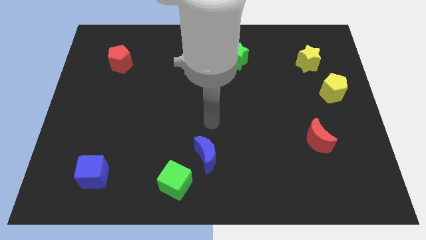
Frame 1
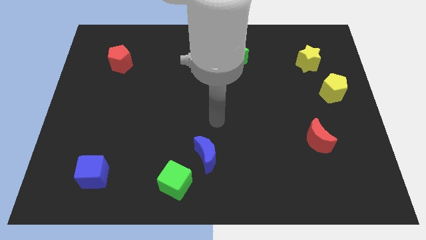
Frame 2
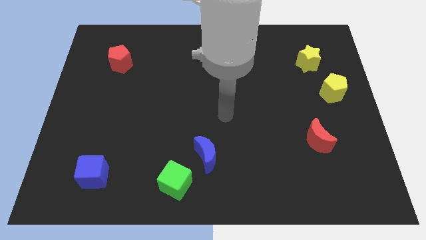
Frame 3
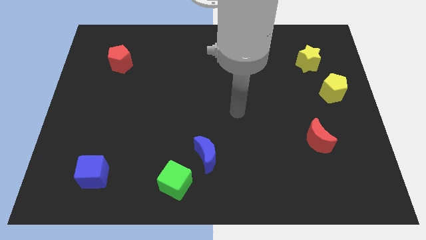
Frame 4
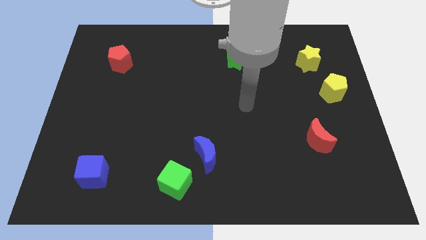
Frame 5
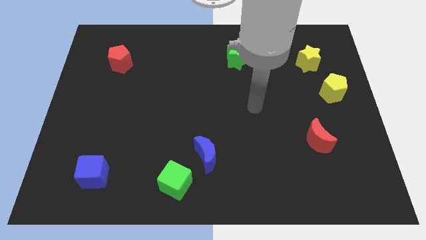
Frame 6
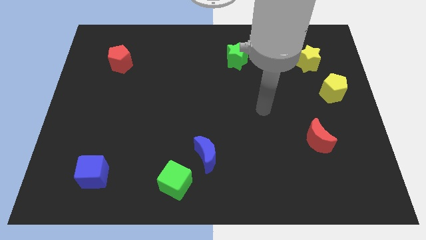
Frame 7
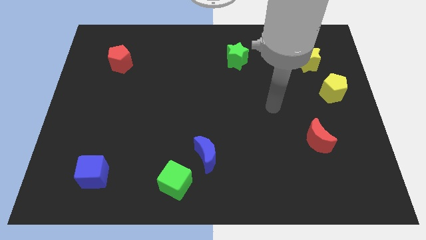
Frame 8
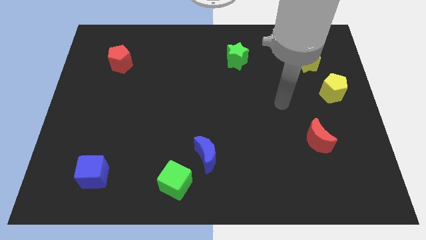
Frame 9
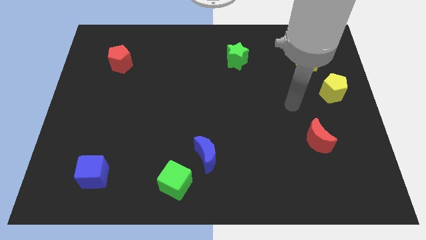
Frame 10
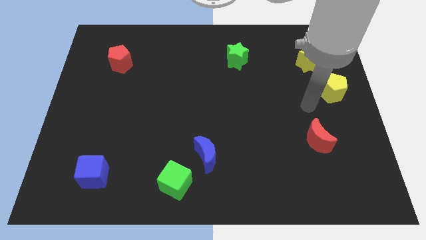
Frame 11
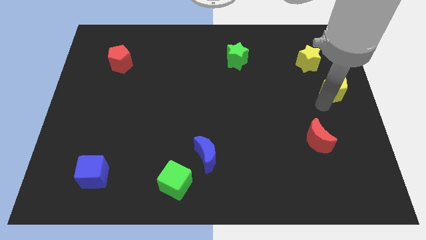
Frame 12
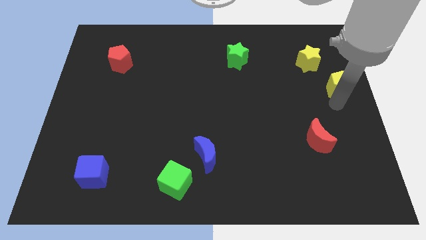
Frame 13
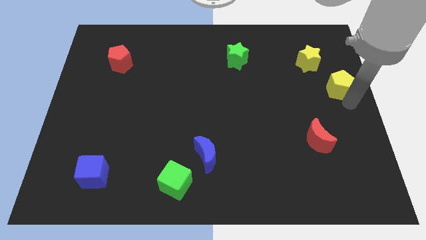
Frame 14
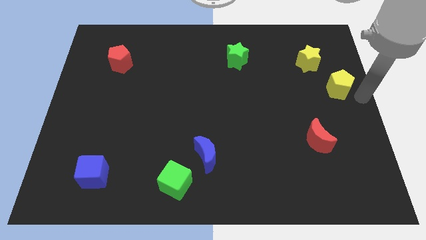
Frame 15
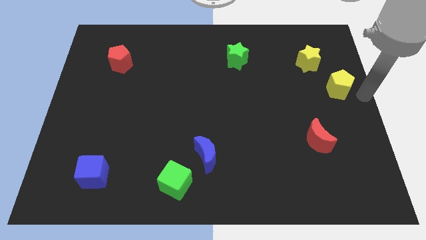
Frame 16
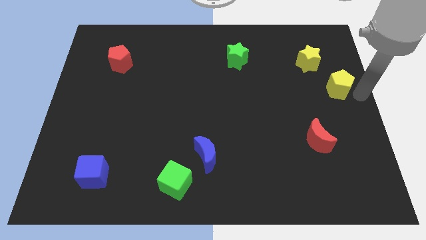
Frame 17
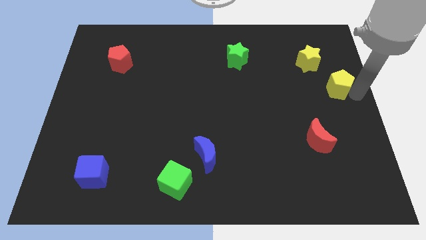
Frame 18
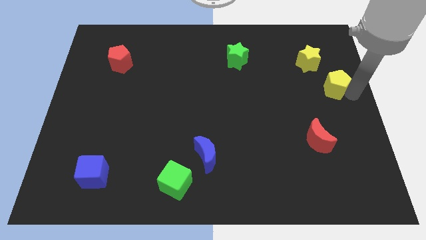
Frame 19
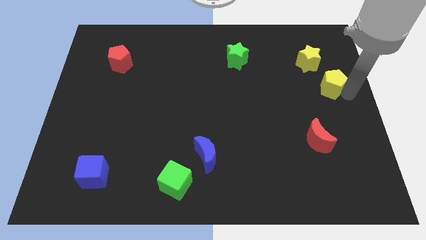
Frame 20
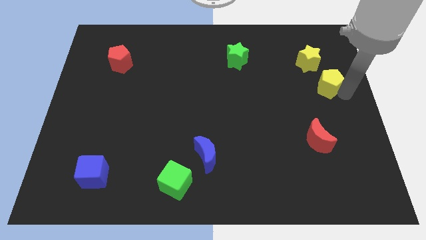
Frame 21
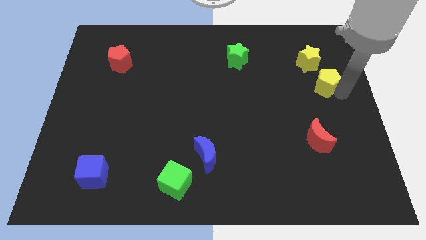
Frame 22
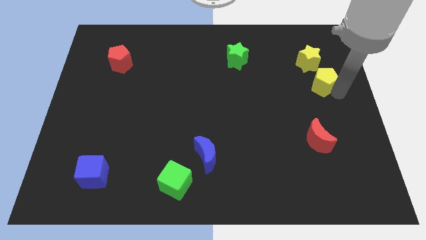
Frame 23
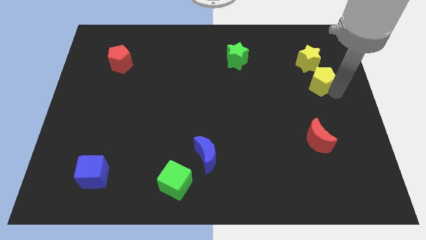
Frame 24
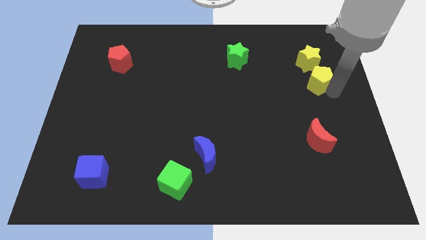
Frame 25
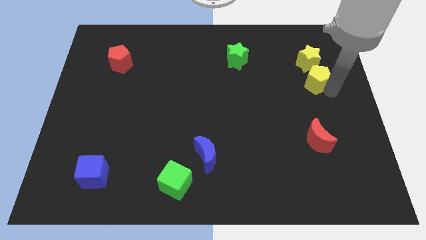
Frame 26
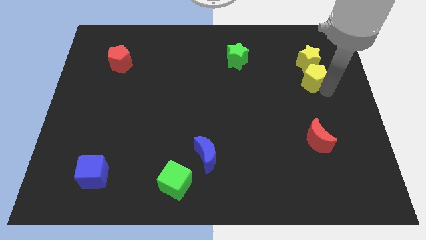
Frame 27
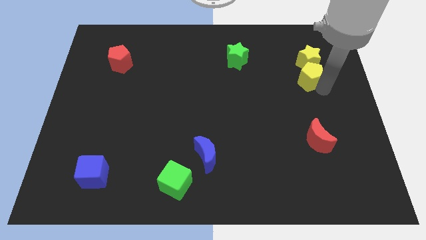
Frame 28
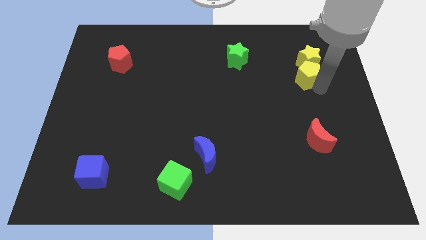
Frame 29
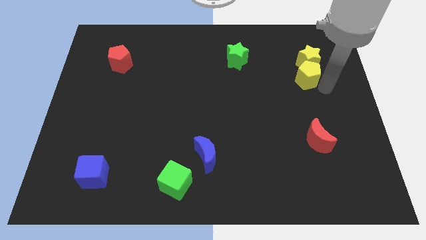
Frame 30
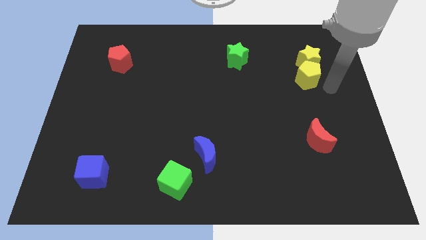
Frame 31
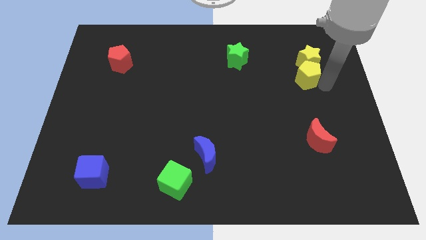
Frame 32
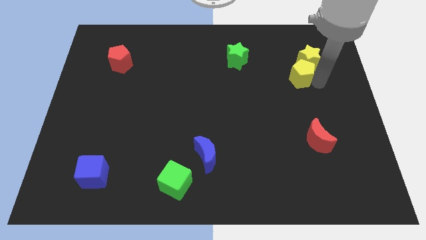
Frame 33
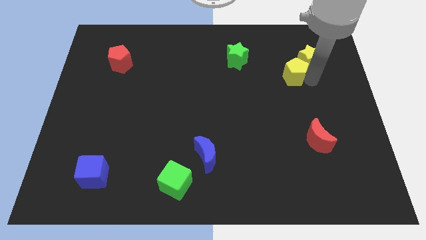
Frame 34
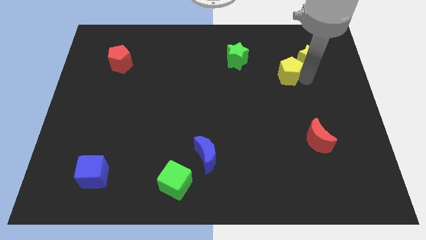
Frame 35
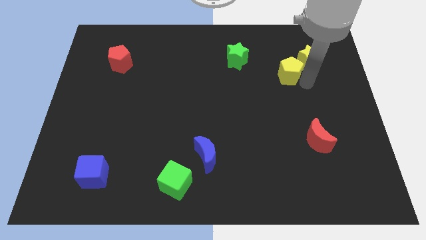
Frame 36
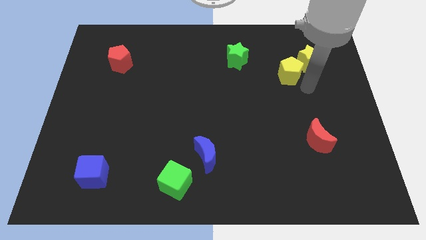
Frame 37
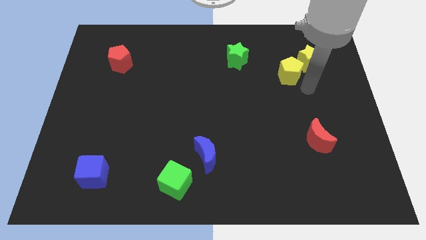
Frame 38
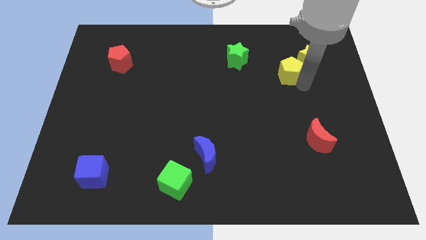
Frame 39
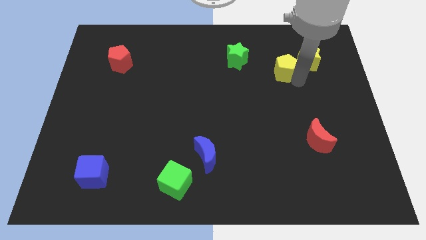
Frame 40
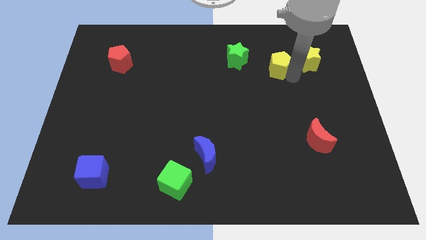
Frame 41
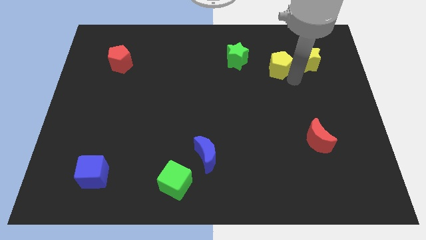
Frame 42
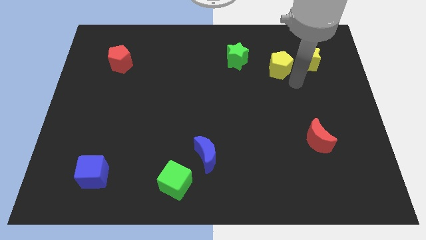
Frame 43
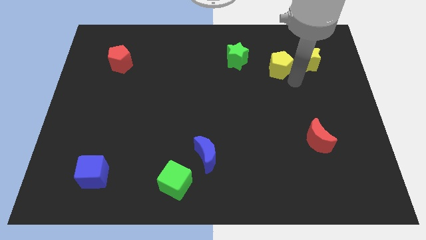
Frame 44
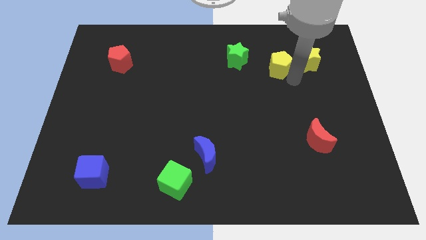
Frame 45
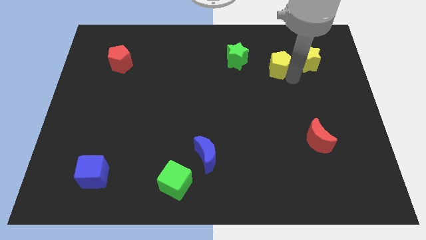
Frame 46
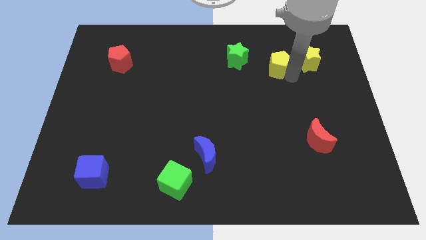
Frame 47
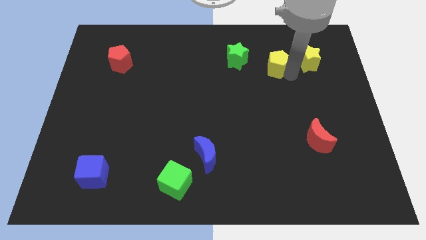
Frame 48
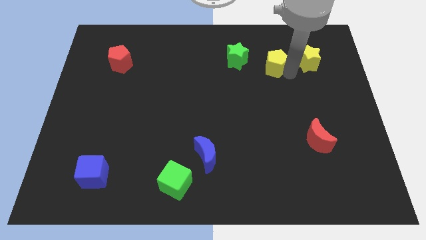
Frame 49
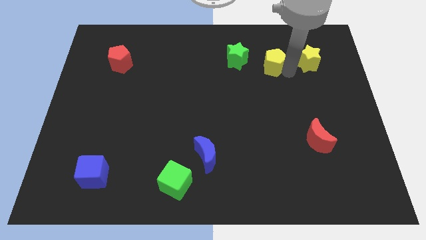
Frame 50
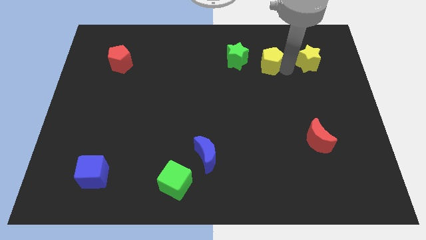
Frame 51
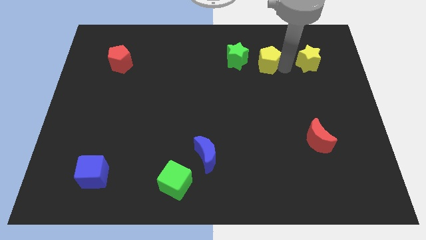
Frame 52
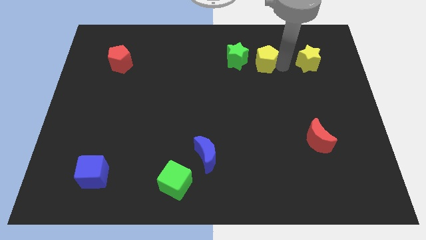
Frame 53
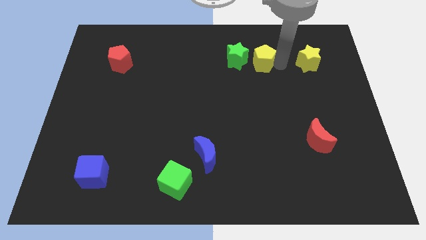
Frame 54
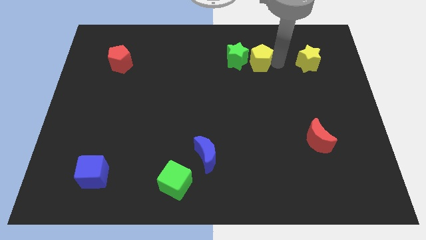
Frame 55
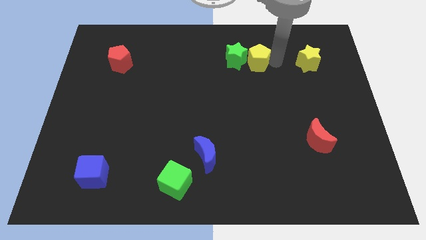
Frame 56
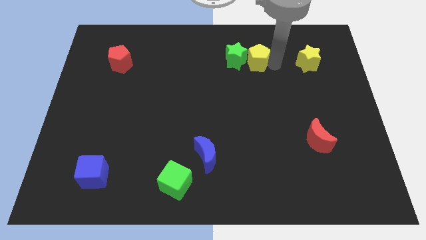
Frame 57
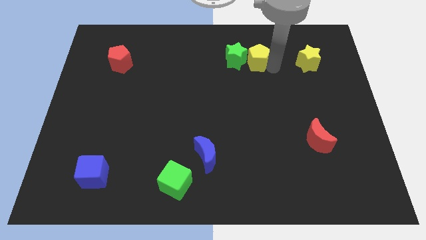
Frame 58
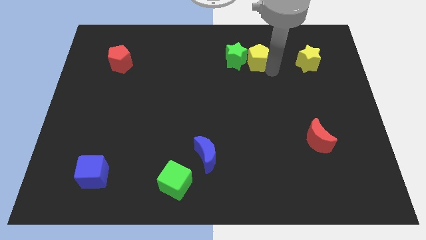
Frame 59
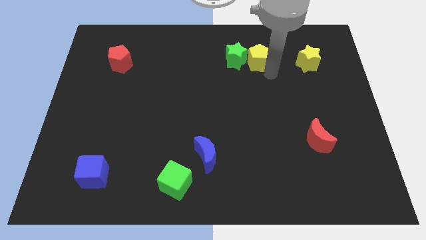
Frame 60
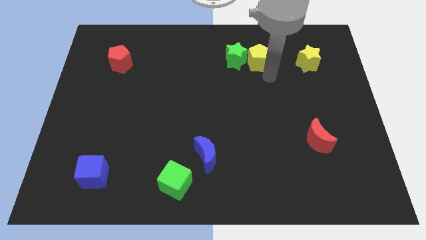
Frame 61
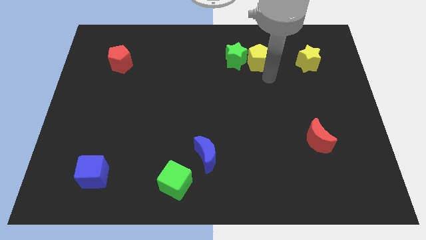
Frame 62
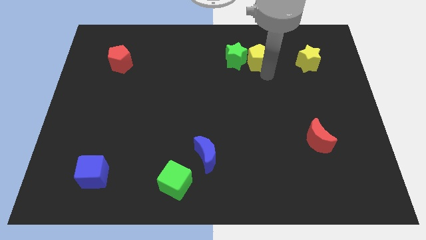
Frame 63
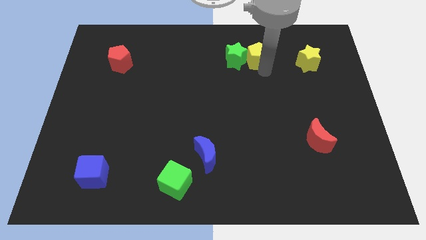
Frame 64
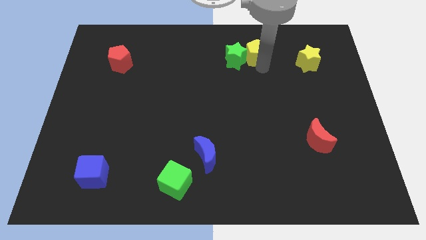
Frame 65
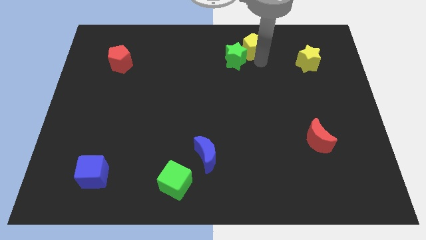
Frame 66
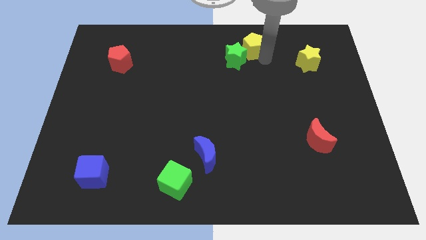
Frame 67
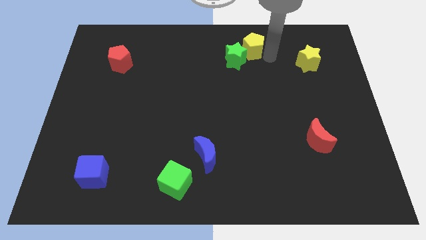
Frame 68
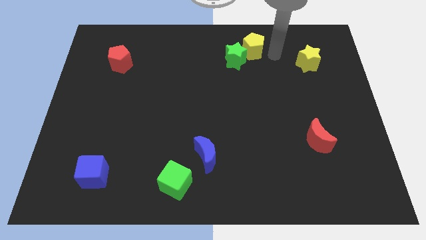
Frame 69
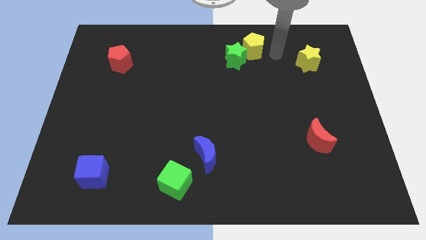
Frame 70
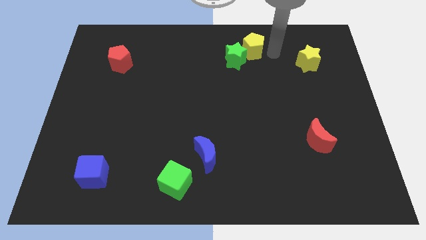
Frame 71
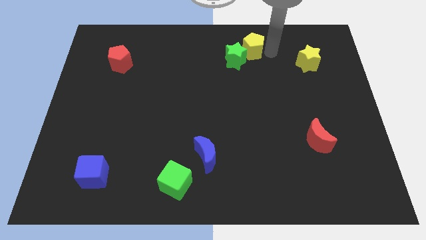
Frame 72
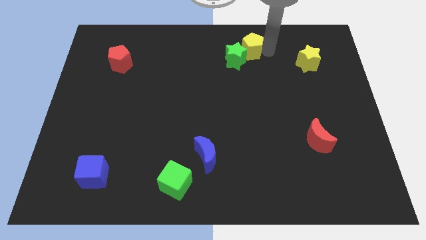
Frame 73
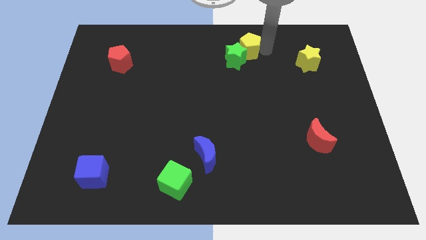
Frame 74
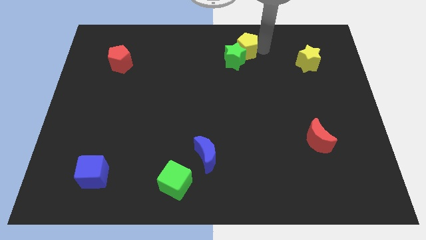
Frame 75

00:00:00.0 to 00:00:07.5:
move the yellow pentagon to the top side
